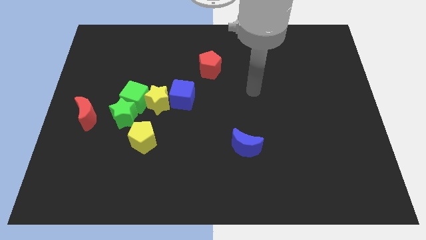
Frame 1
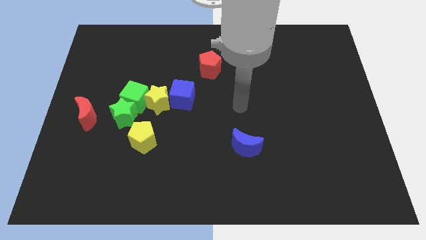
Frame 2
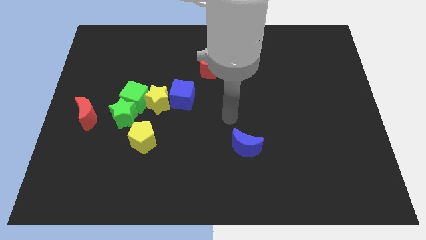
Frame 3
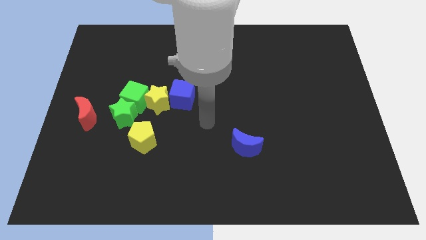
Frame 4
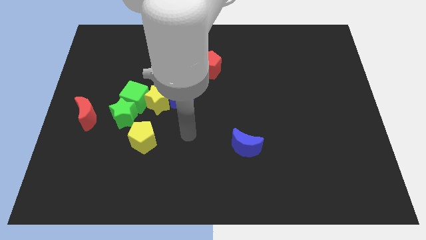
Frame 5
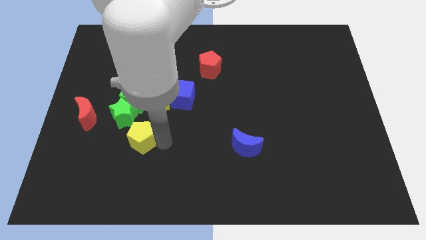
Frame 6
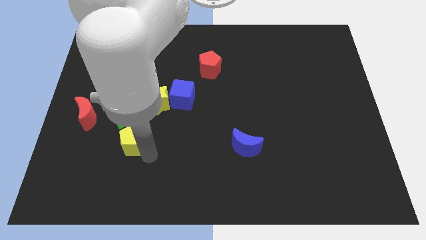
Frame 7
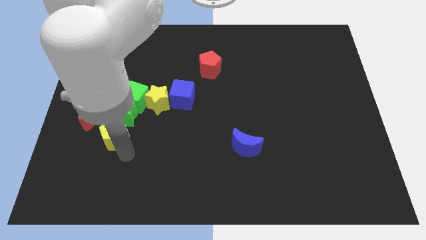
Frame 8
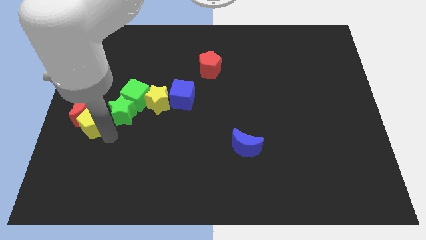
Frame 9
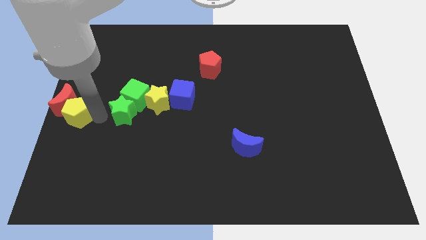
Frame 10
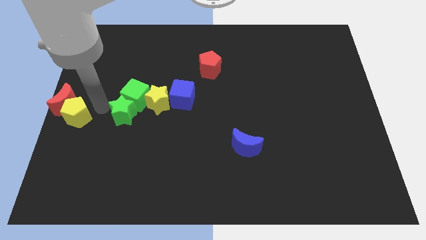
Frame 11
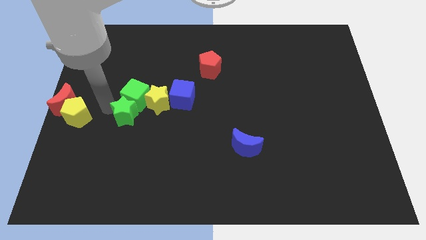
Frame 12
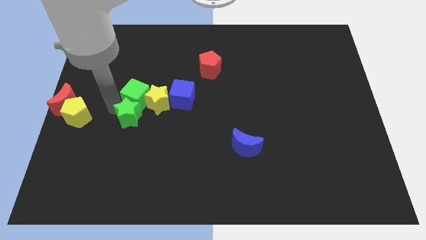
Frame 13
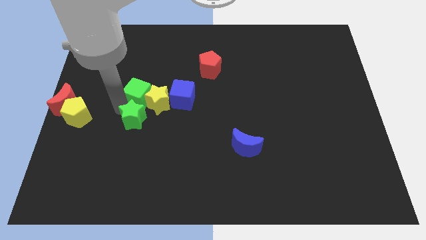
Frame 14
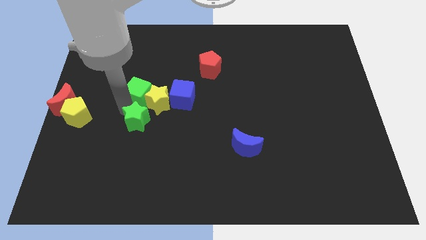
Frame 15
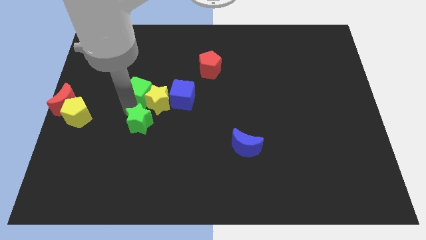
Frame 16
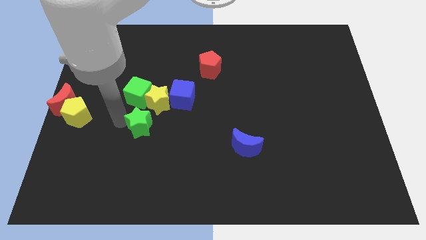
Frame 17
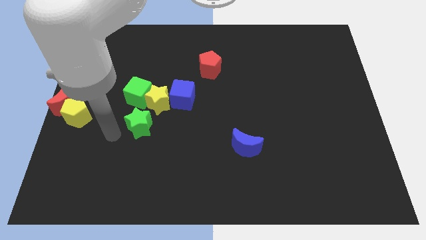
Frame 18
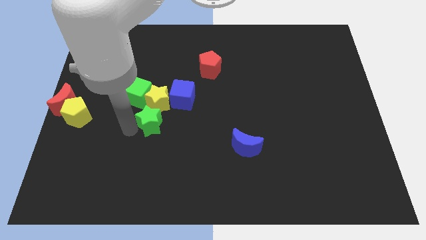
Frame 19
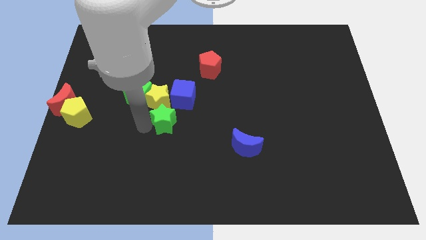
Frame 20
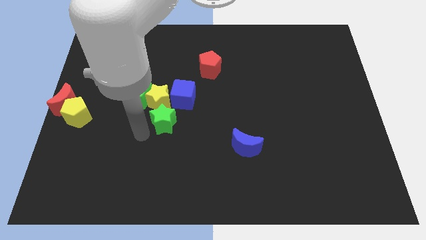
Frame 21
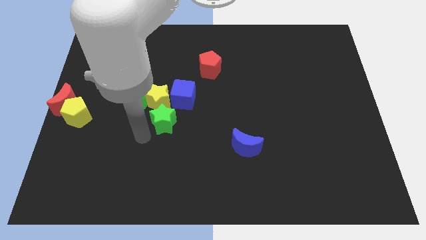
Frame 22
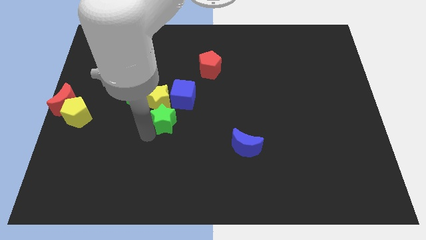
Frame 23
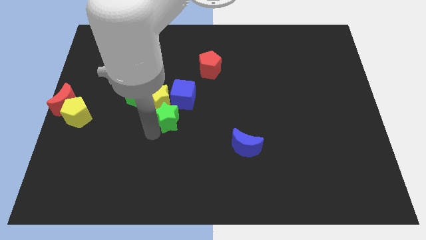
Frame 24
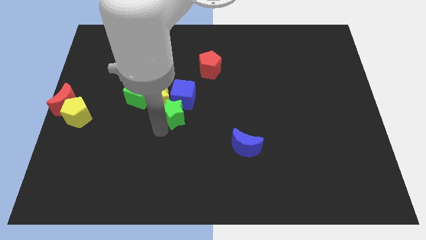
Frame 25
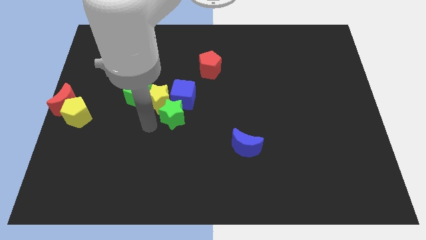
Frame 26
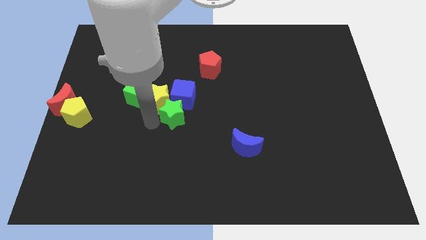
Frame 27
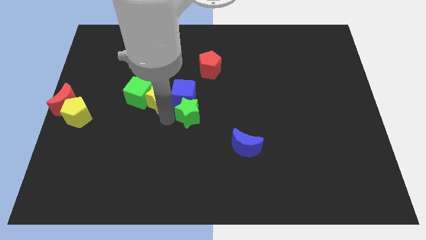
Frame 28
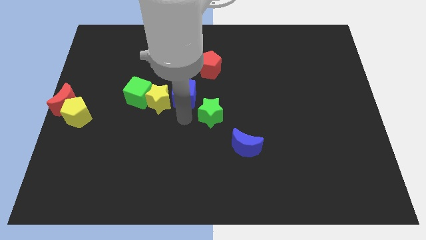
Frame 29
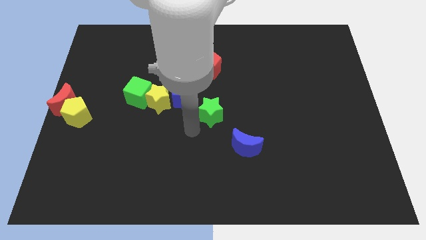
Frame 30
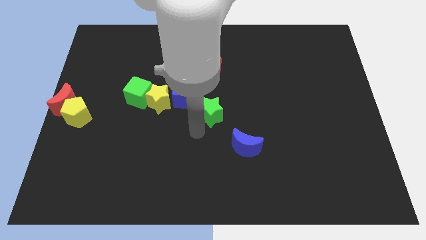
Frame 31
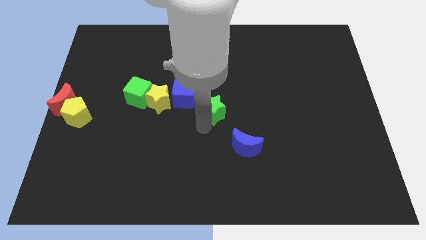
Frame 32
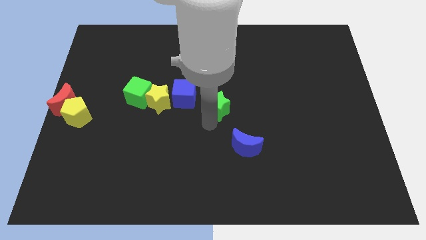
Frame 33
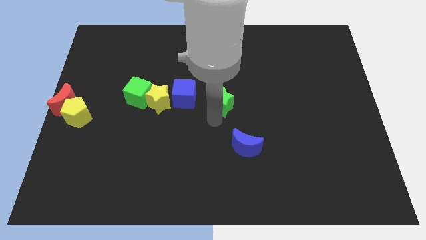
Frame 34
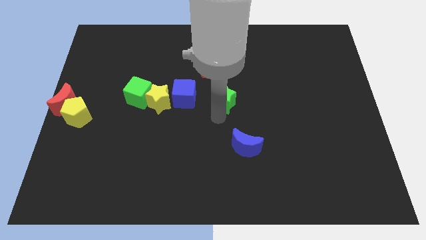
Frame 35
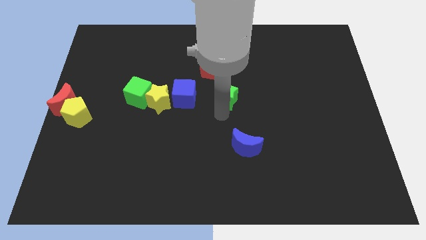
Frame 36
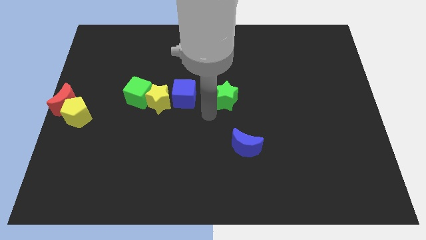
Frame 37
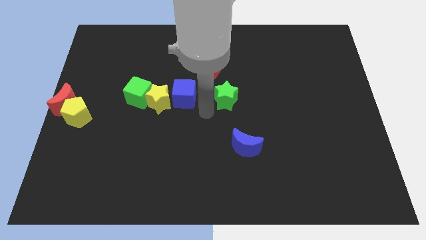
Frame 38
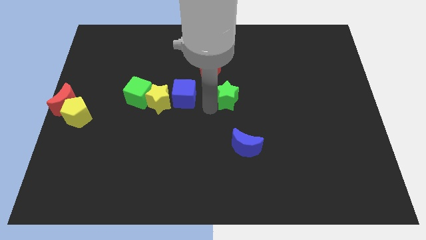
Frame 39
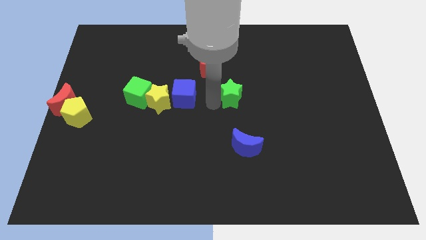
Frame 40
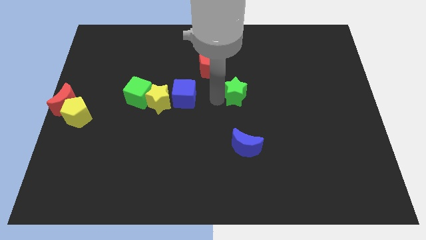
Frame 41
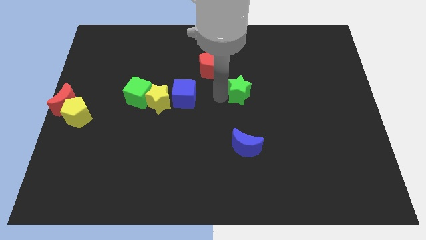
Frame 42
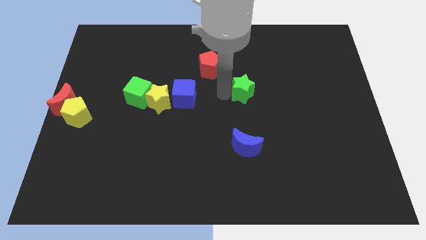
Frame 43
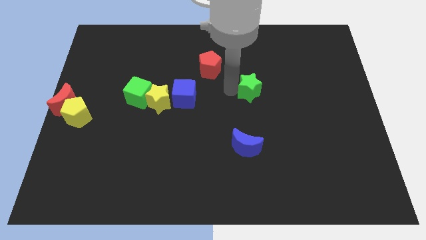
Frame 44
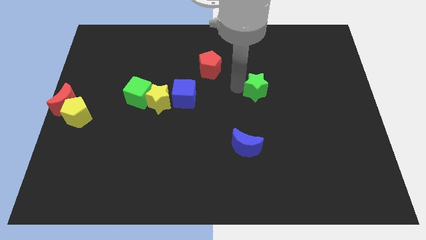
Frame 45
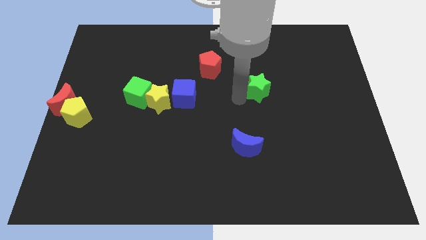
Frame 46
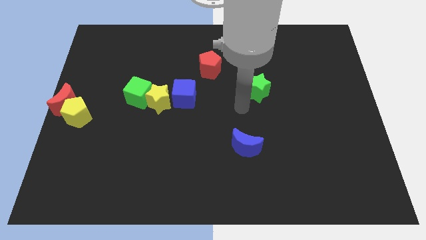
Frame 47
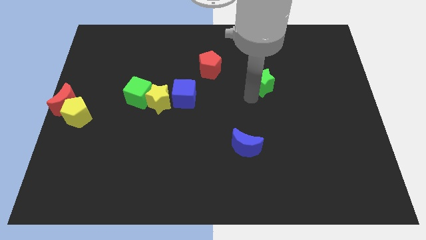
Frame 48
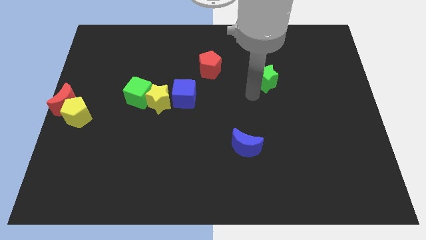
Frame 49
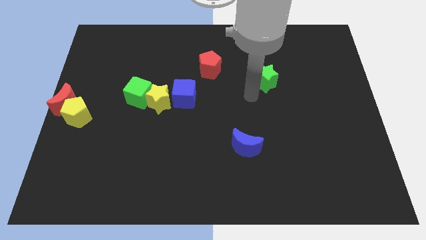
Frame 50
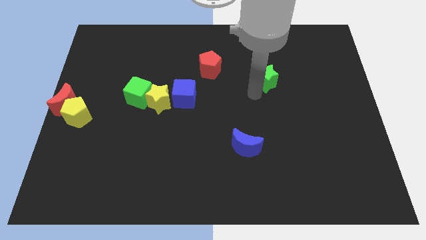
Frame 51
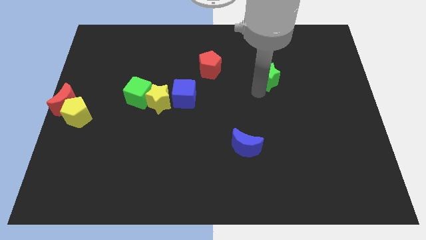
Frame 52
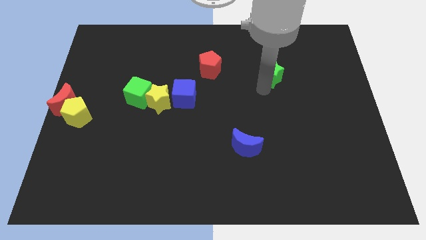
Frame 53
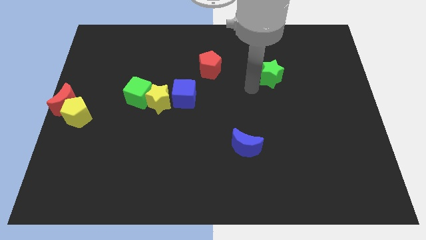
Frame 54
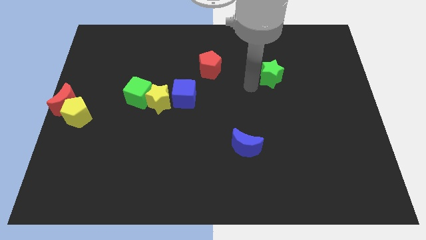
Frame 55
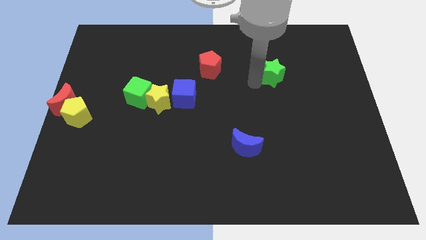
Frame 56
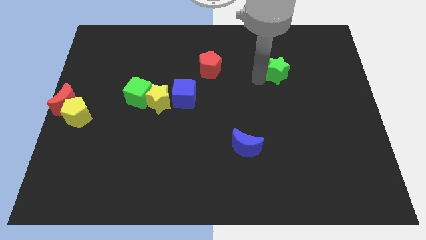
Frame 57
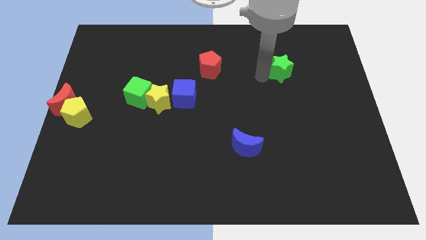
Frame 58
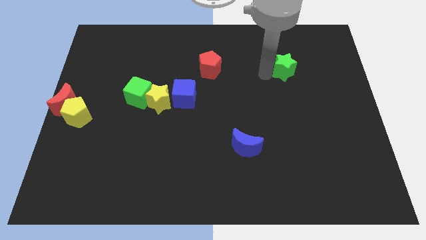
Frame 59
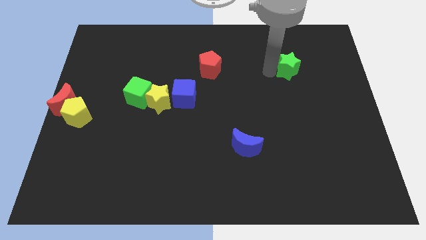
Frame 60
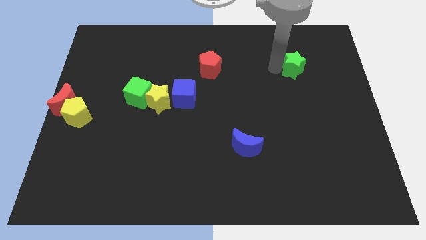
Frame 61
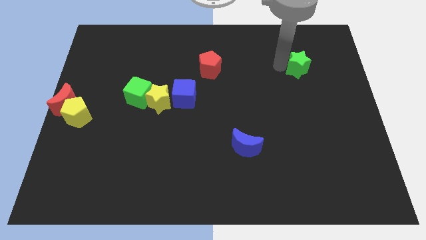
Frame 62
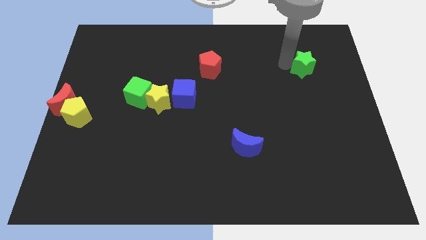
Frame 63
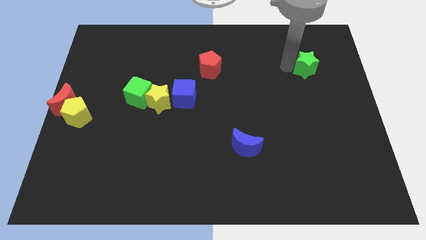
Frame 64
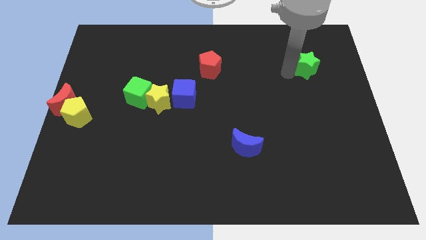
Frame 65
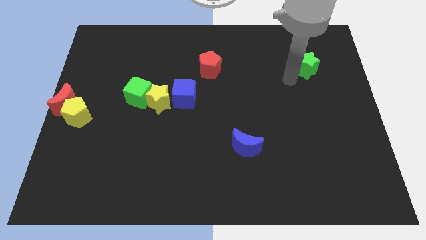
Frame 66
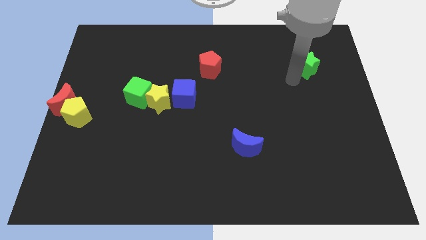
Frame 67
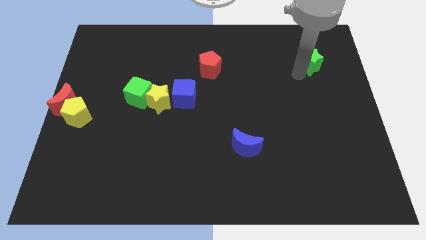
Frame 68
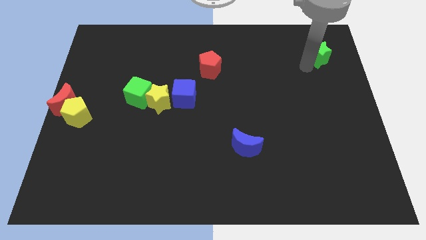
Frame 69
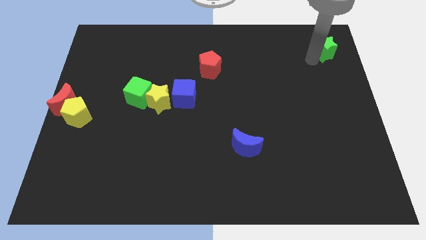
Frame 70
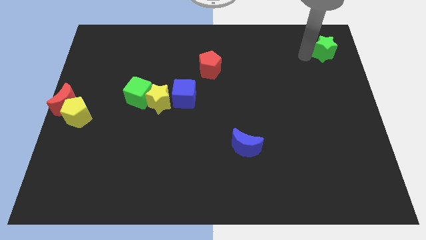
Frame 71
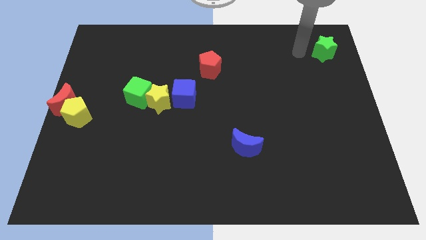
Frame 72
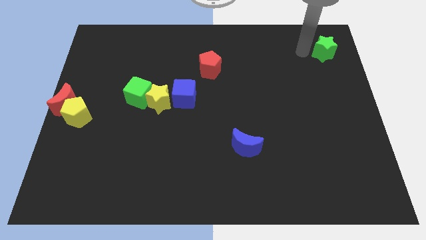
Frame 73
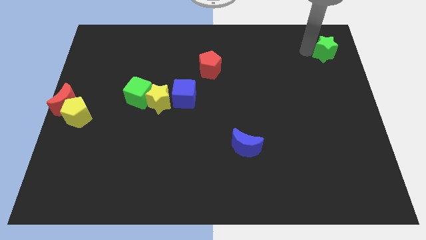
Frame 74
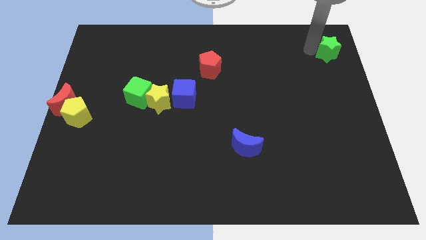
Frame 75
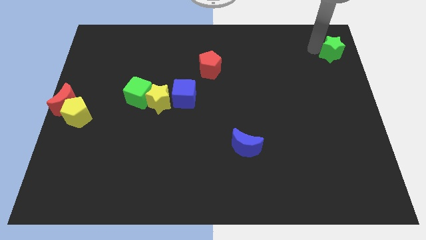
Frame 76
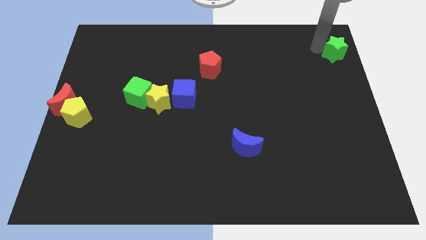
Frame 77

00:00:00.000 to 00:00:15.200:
push the green star to the upper right corner
